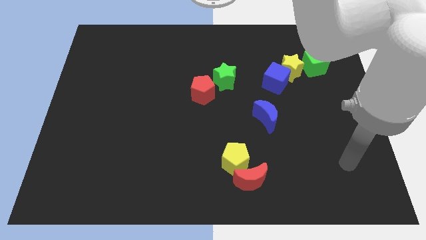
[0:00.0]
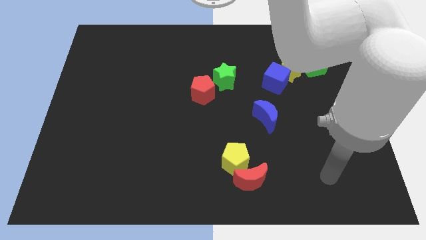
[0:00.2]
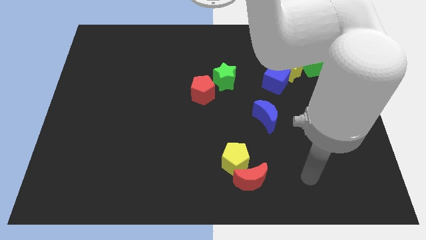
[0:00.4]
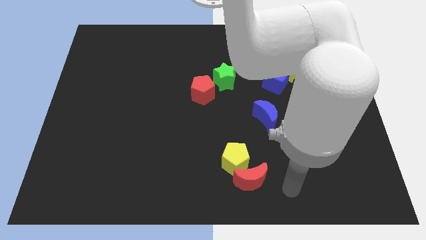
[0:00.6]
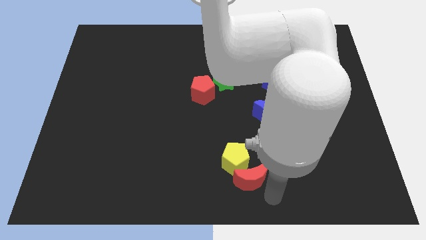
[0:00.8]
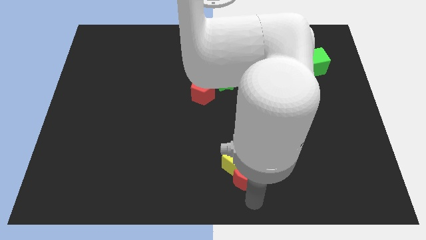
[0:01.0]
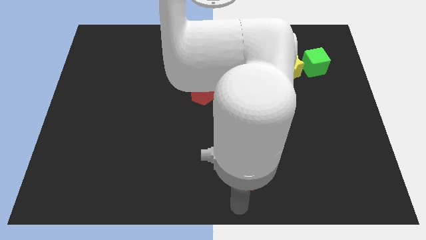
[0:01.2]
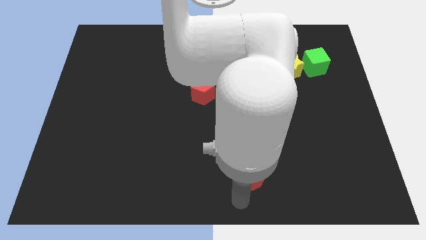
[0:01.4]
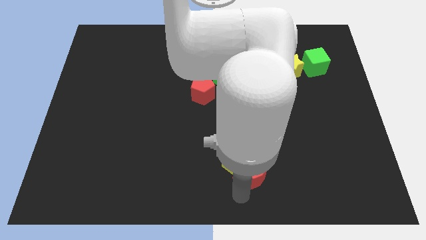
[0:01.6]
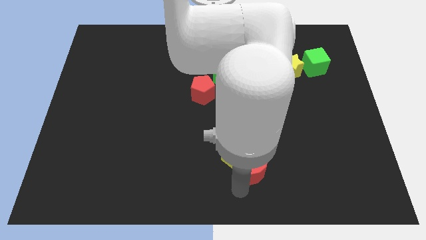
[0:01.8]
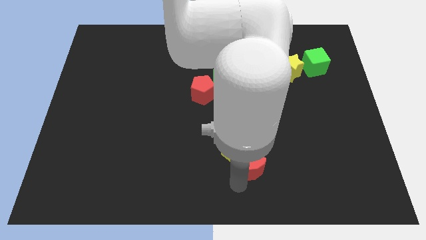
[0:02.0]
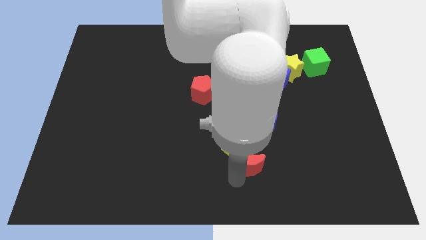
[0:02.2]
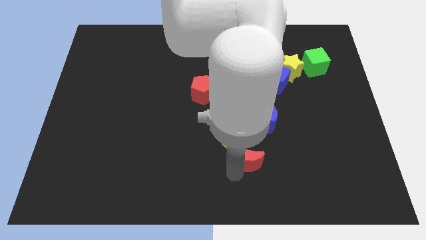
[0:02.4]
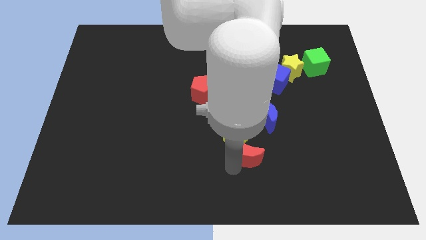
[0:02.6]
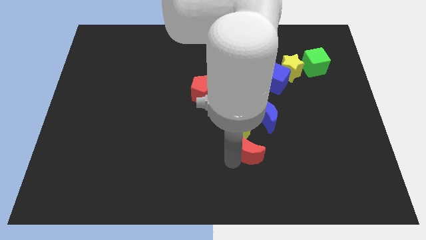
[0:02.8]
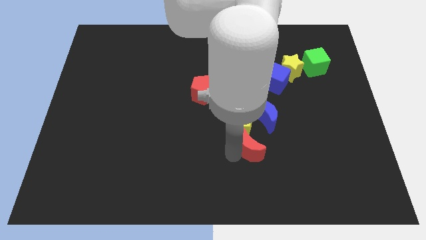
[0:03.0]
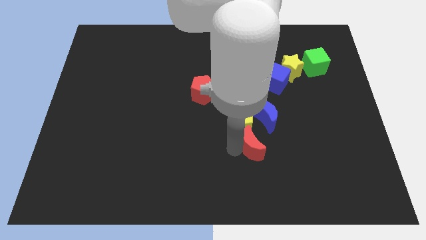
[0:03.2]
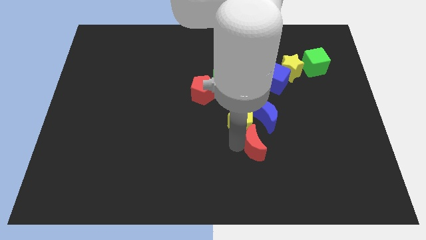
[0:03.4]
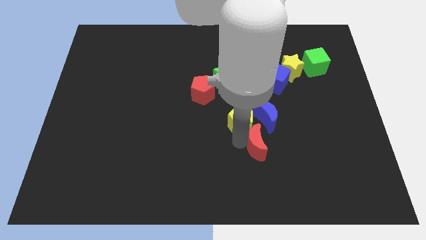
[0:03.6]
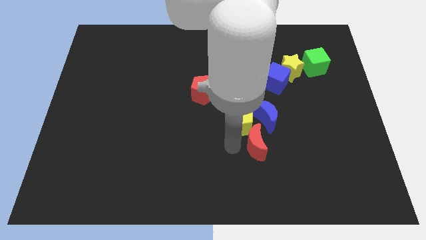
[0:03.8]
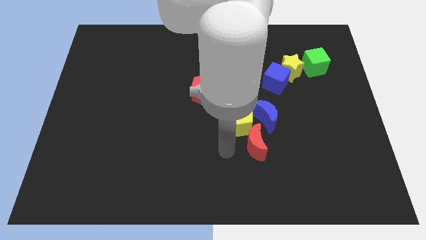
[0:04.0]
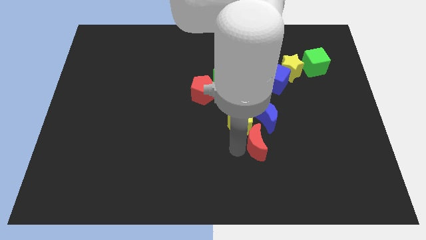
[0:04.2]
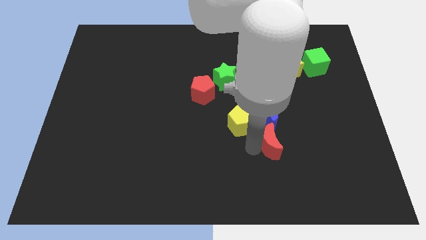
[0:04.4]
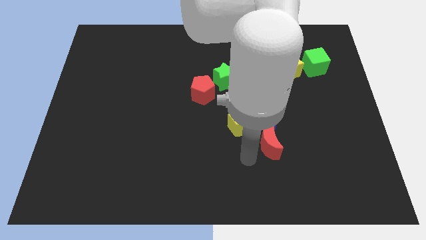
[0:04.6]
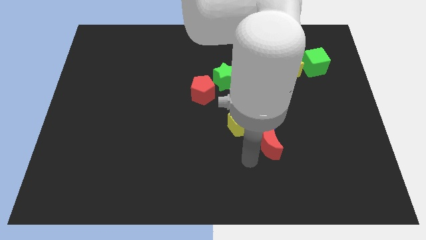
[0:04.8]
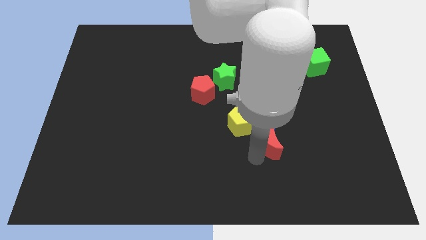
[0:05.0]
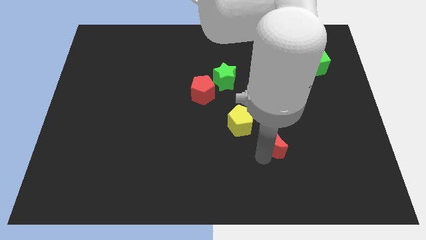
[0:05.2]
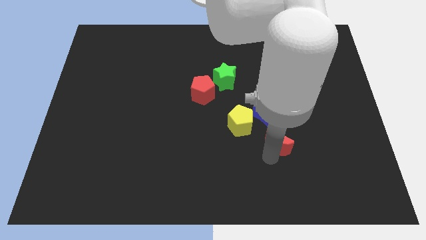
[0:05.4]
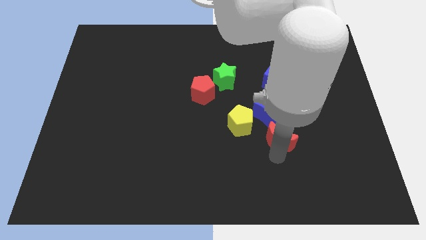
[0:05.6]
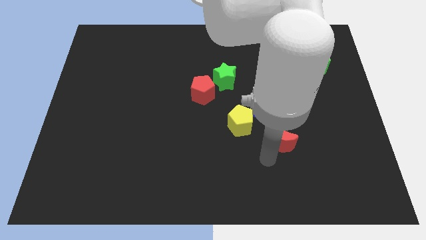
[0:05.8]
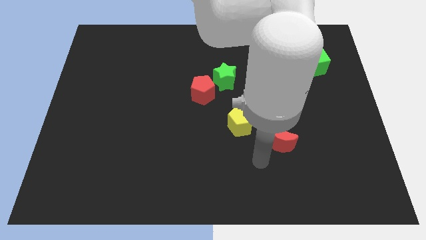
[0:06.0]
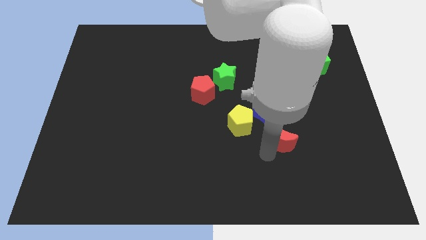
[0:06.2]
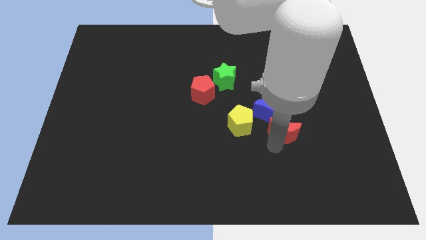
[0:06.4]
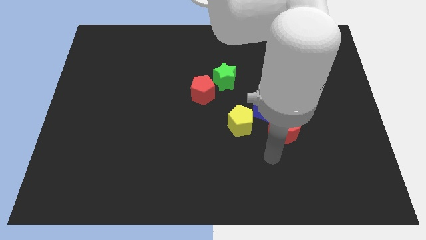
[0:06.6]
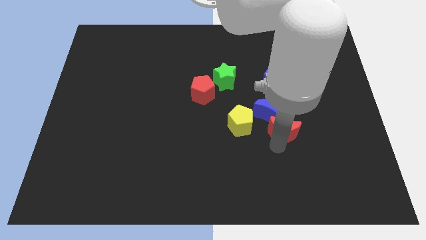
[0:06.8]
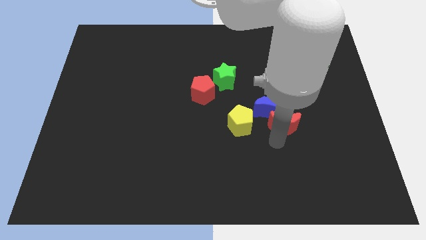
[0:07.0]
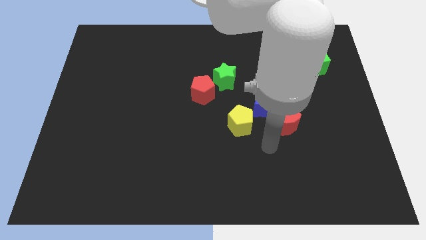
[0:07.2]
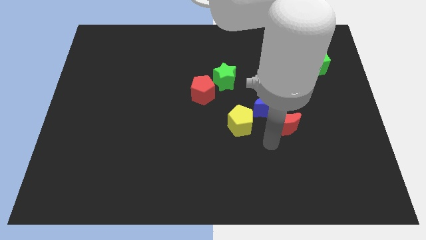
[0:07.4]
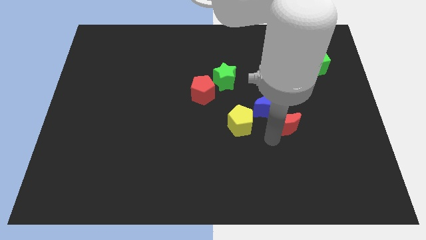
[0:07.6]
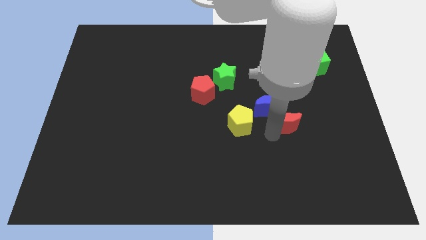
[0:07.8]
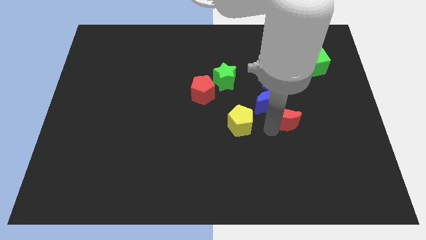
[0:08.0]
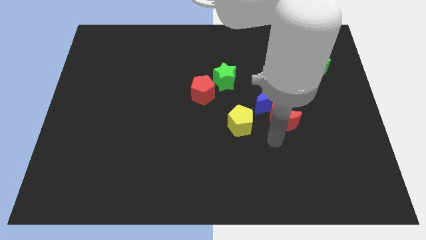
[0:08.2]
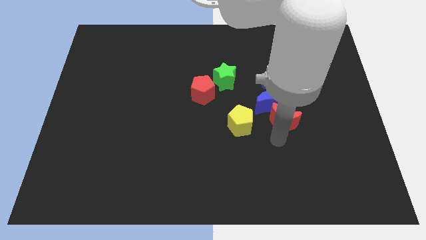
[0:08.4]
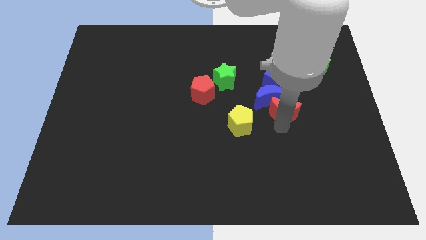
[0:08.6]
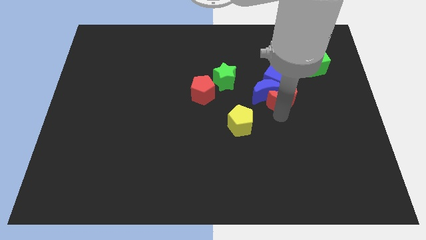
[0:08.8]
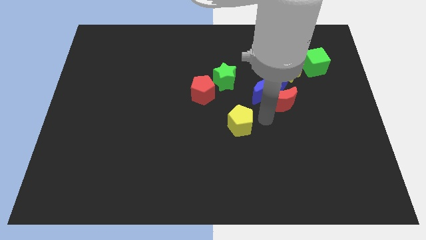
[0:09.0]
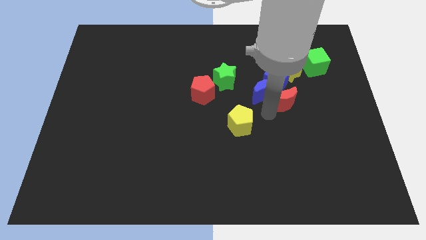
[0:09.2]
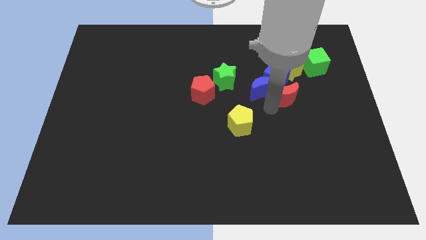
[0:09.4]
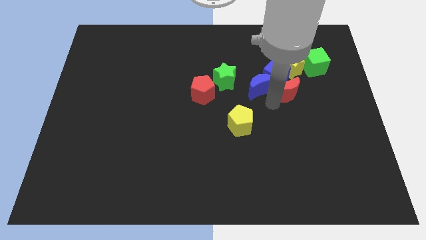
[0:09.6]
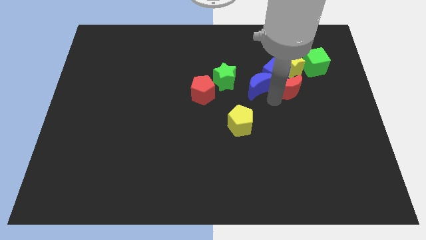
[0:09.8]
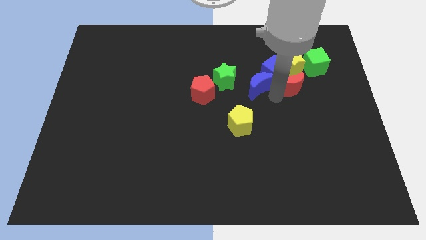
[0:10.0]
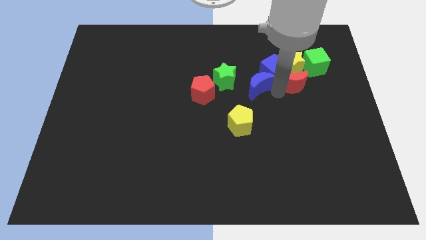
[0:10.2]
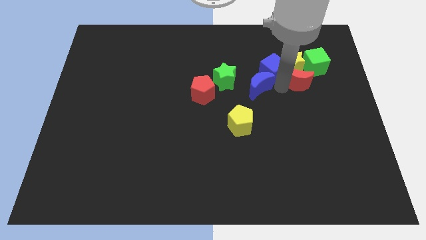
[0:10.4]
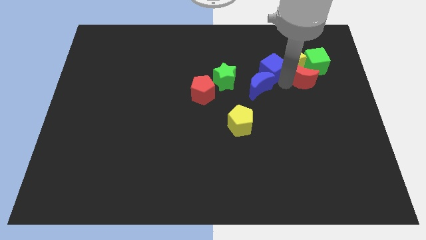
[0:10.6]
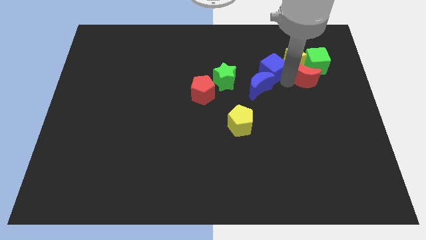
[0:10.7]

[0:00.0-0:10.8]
move the red moon close to the green cube

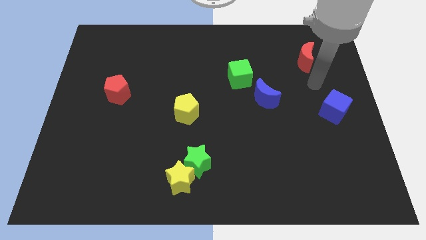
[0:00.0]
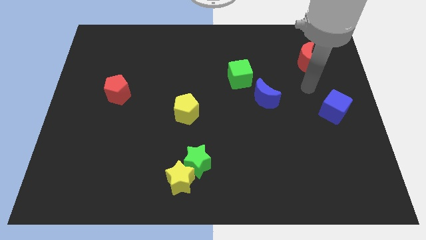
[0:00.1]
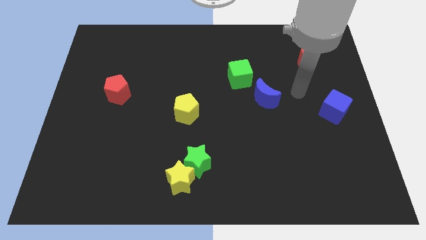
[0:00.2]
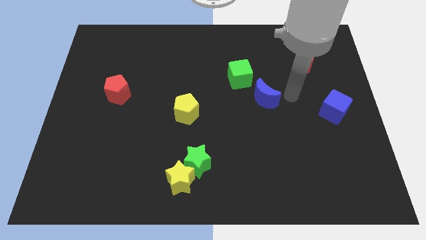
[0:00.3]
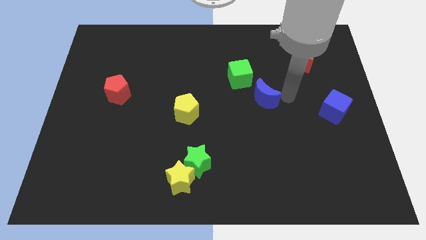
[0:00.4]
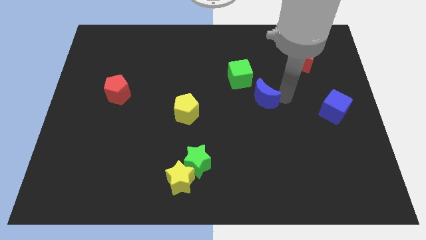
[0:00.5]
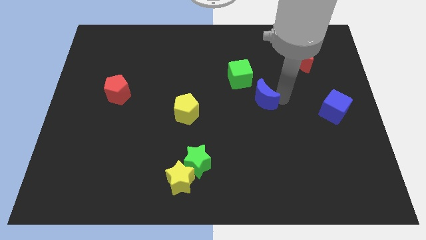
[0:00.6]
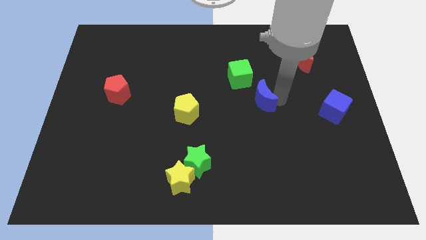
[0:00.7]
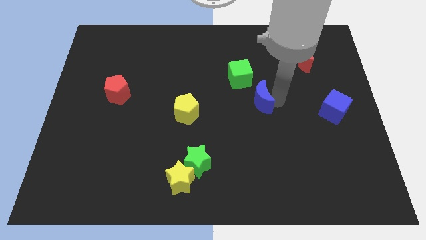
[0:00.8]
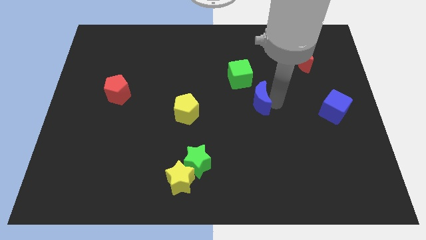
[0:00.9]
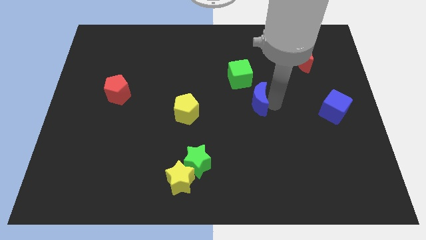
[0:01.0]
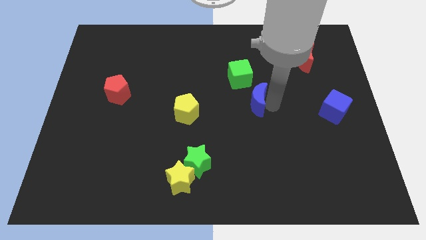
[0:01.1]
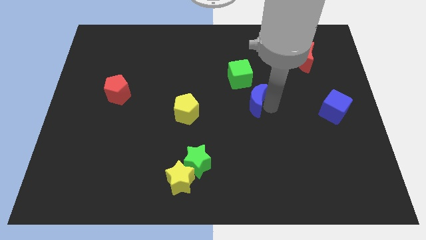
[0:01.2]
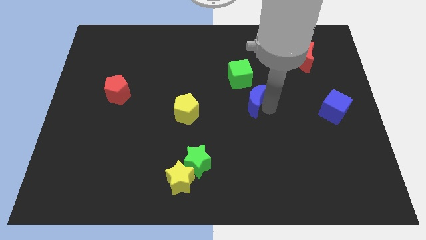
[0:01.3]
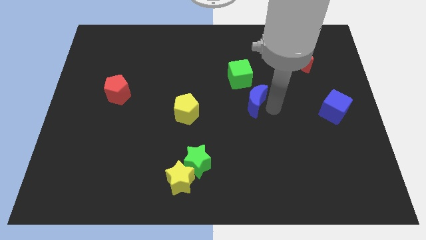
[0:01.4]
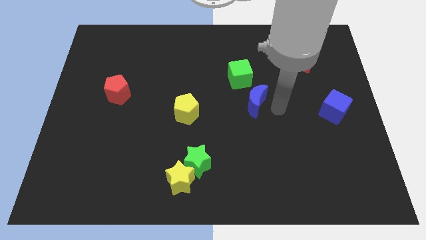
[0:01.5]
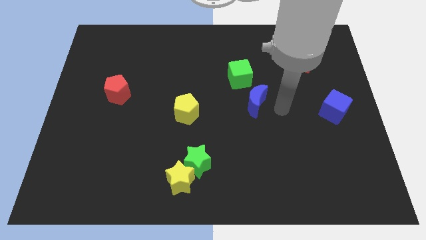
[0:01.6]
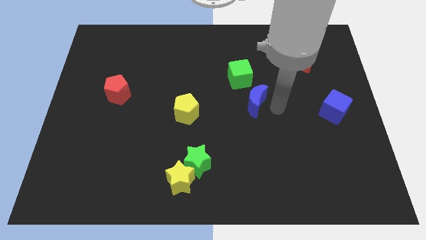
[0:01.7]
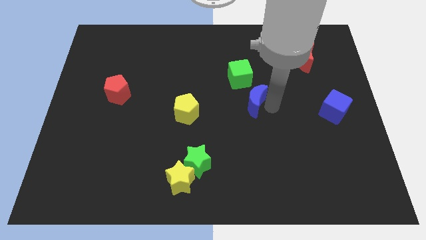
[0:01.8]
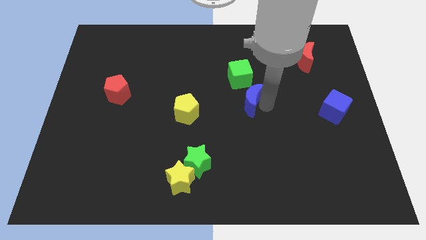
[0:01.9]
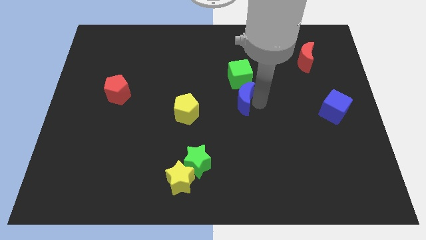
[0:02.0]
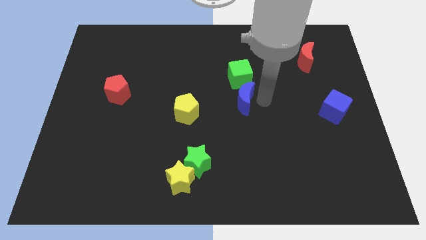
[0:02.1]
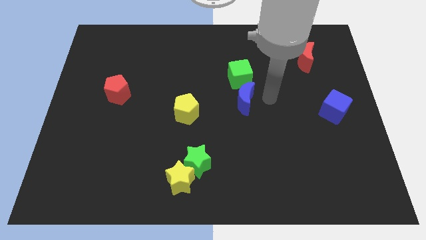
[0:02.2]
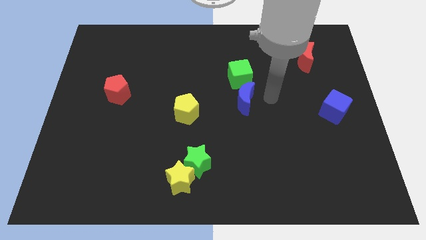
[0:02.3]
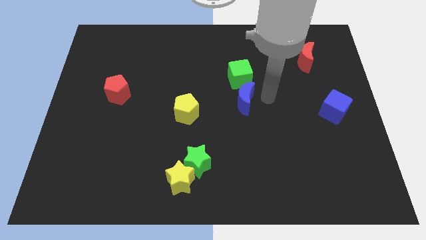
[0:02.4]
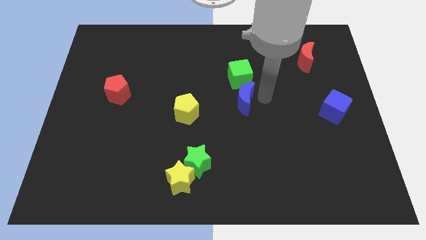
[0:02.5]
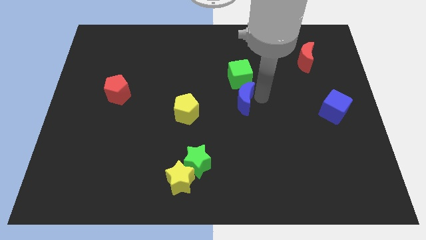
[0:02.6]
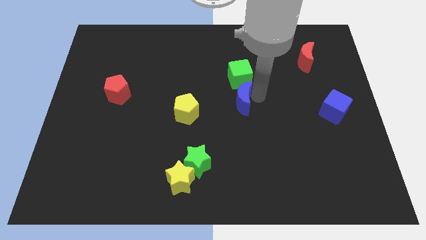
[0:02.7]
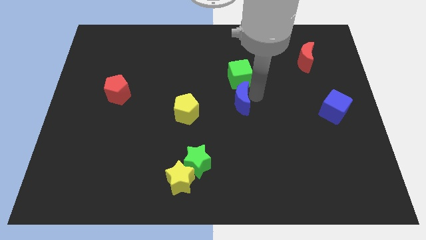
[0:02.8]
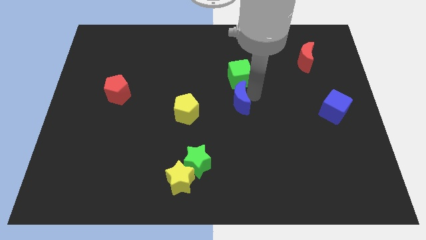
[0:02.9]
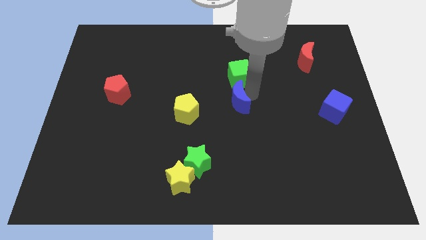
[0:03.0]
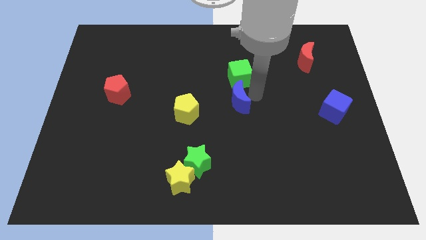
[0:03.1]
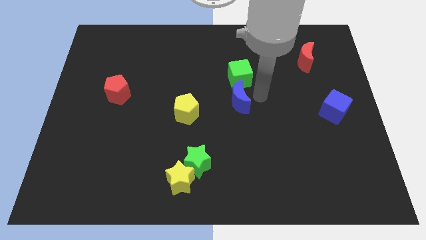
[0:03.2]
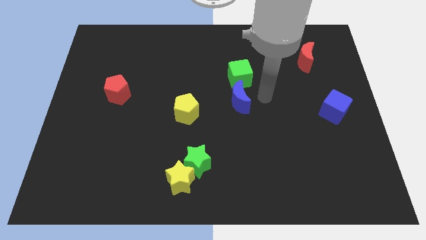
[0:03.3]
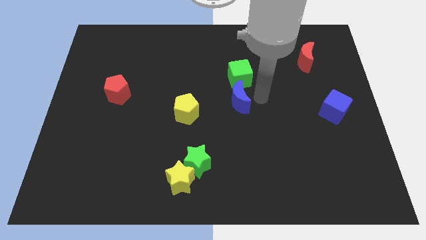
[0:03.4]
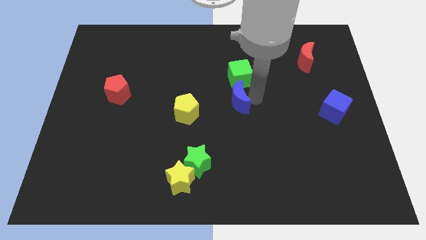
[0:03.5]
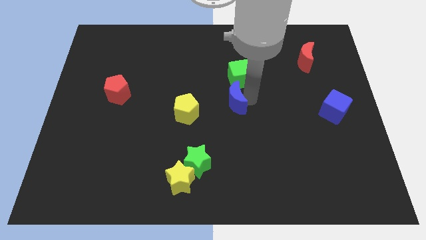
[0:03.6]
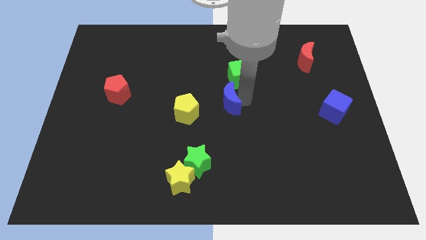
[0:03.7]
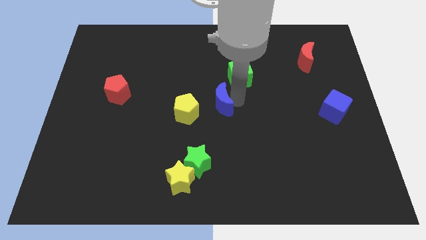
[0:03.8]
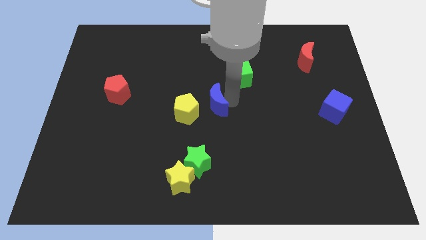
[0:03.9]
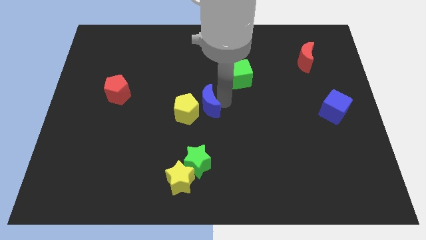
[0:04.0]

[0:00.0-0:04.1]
move the blue moon towards the yellow pentagon
